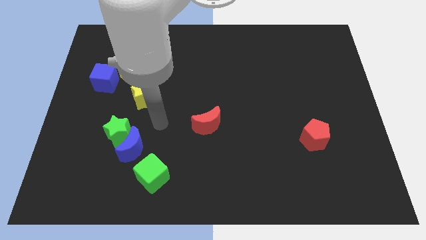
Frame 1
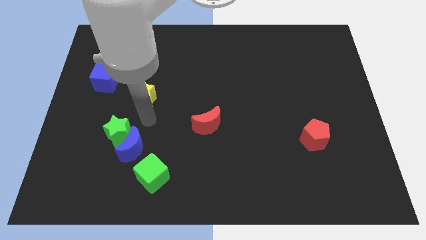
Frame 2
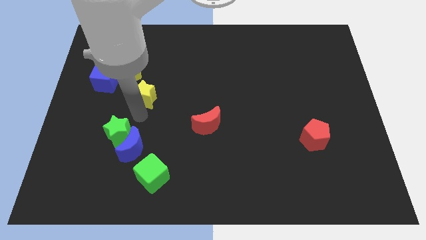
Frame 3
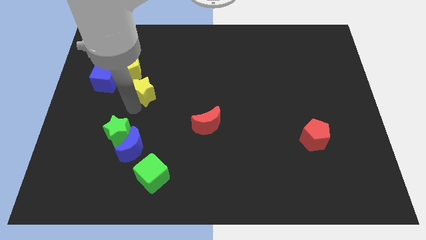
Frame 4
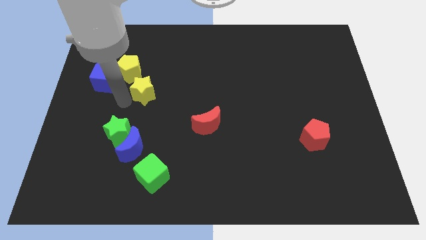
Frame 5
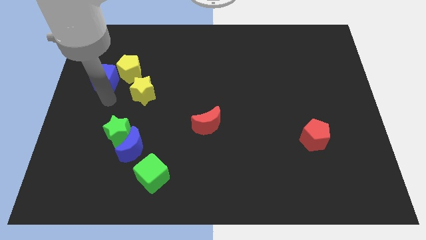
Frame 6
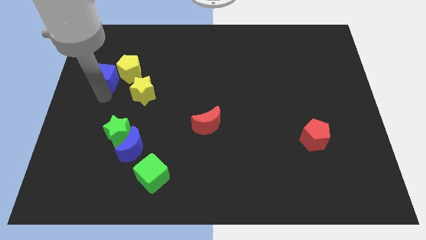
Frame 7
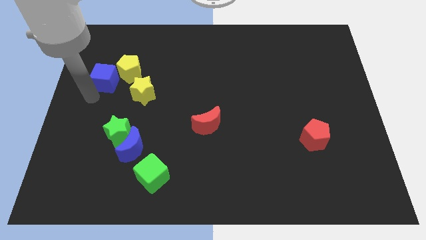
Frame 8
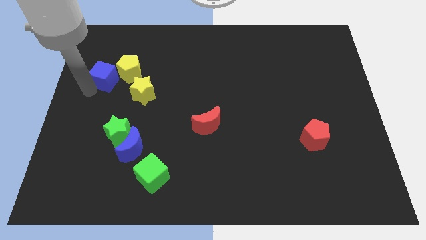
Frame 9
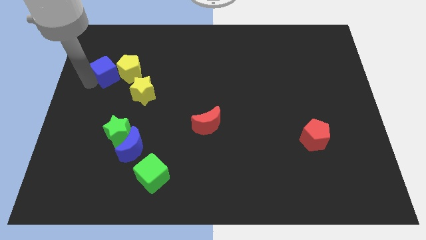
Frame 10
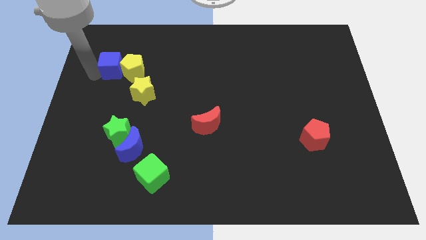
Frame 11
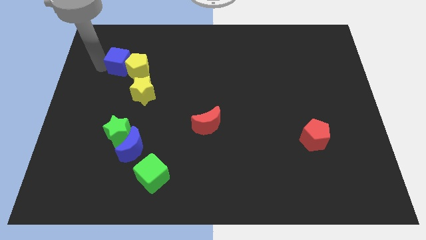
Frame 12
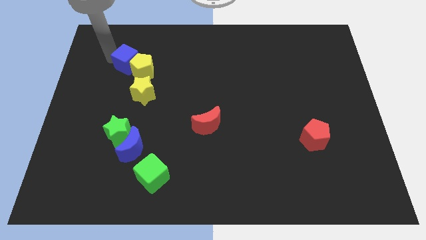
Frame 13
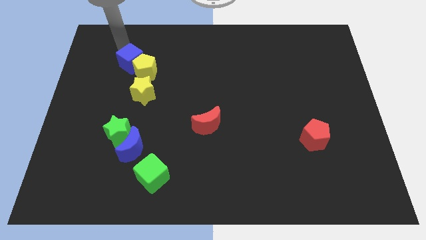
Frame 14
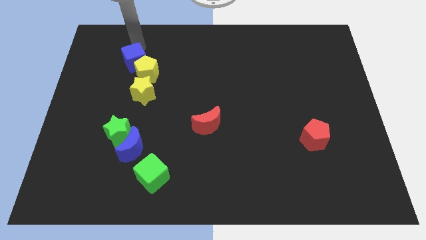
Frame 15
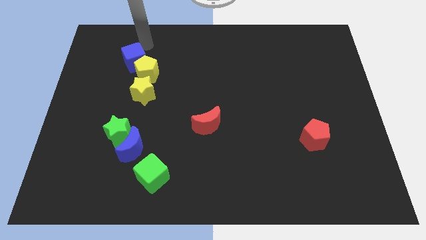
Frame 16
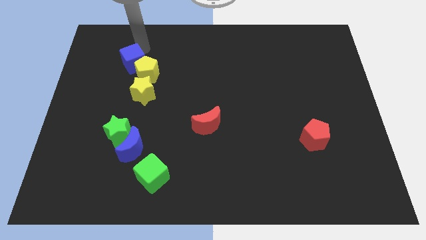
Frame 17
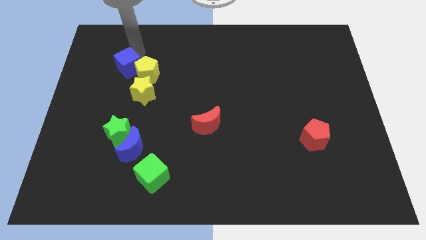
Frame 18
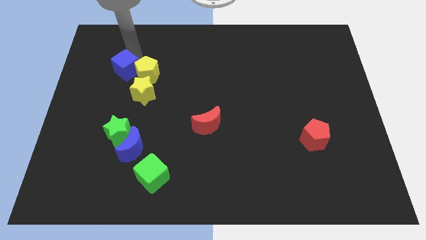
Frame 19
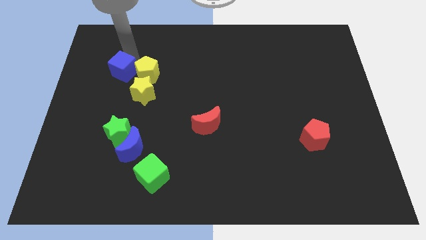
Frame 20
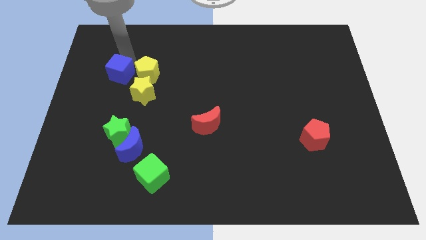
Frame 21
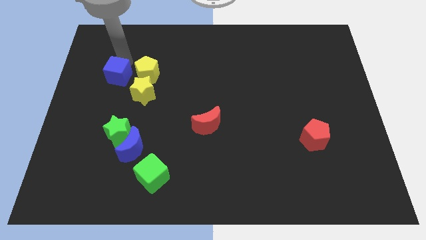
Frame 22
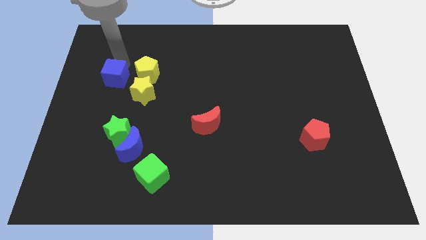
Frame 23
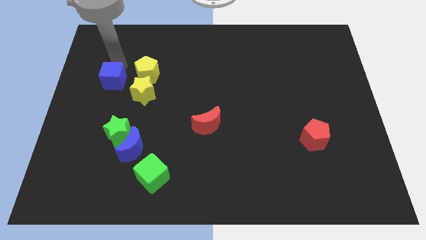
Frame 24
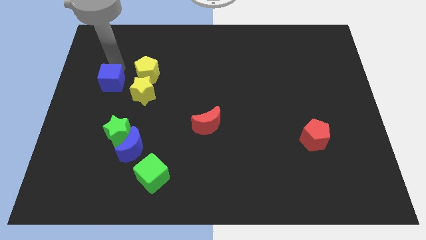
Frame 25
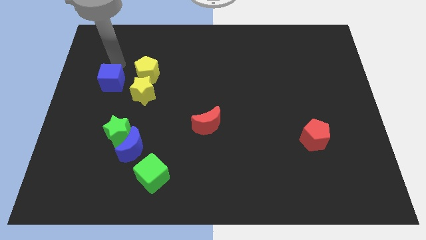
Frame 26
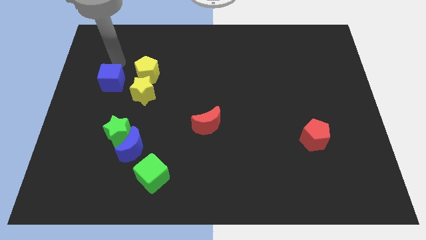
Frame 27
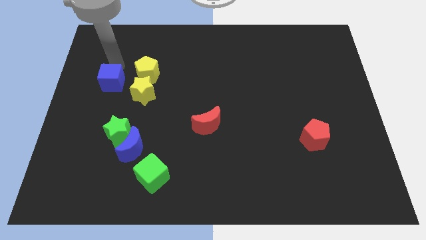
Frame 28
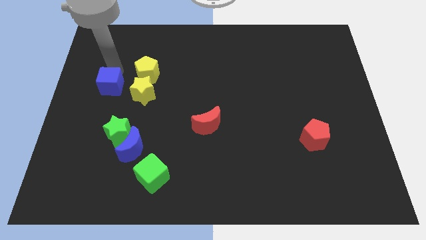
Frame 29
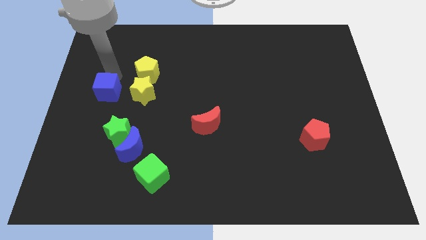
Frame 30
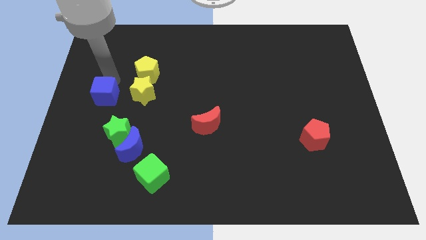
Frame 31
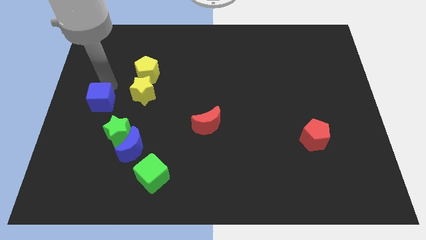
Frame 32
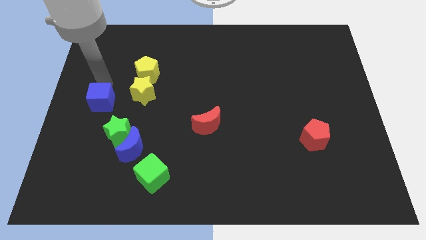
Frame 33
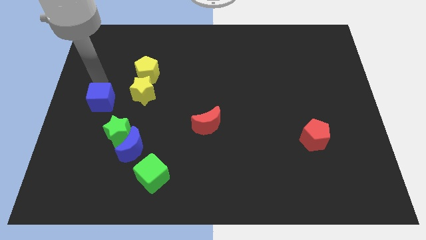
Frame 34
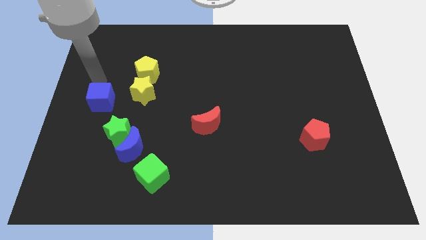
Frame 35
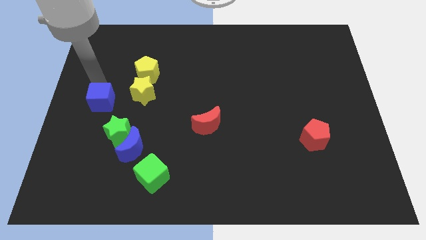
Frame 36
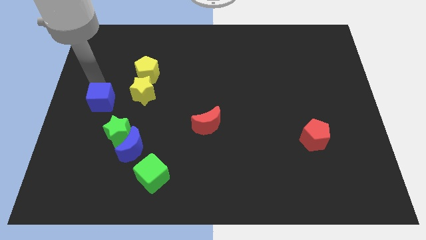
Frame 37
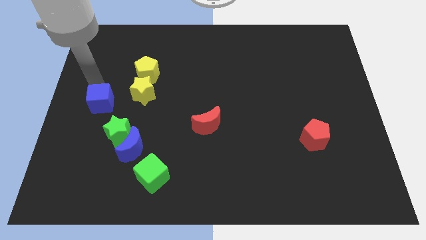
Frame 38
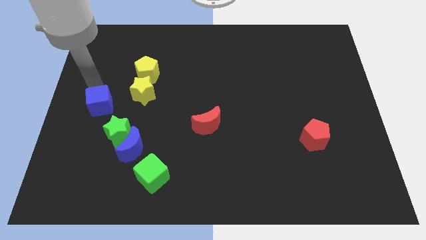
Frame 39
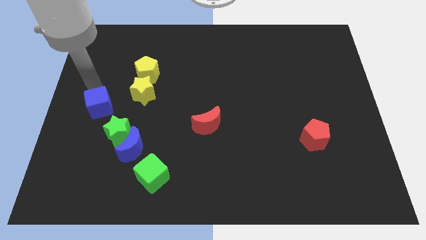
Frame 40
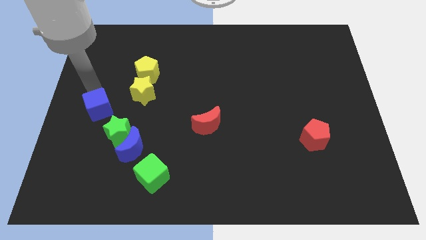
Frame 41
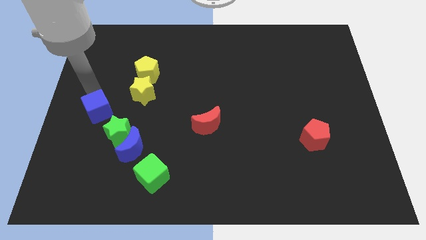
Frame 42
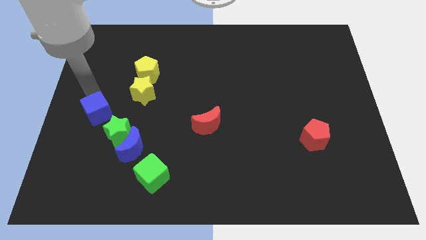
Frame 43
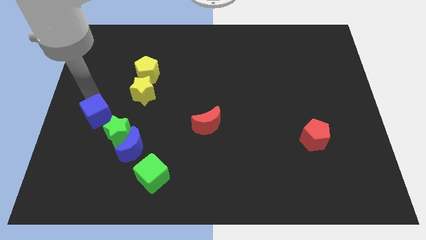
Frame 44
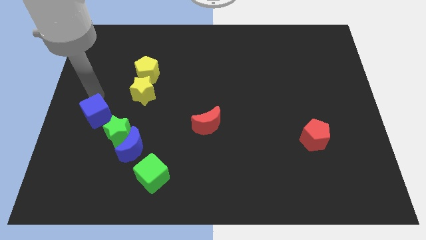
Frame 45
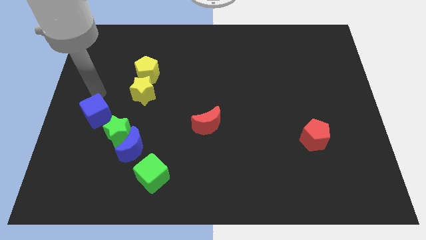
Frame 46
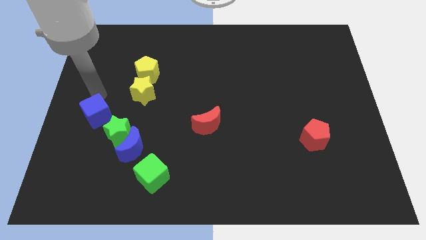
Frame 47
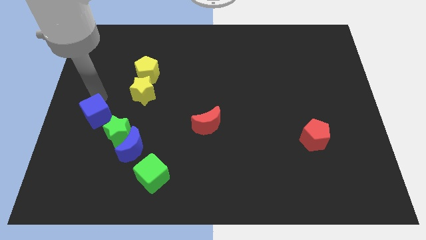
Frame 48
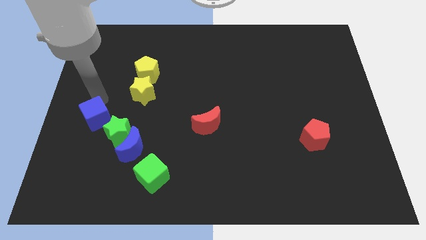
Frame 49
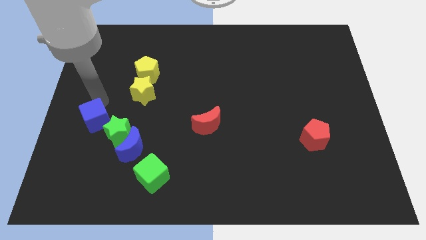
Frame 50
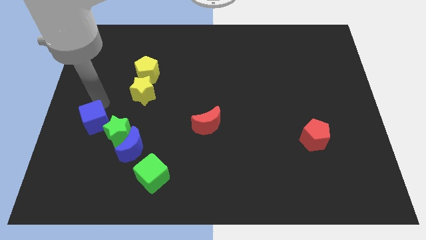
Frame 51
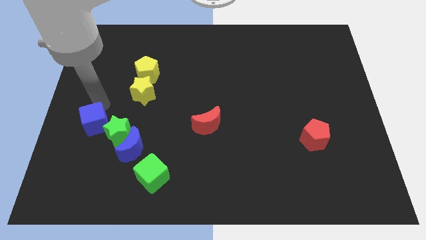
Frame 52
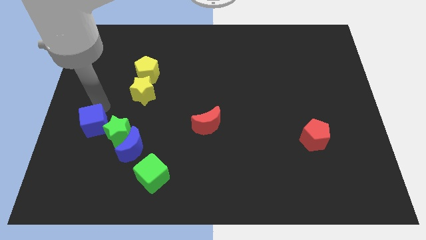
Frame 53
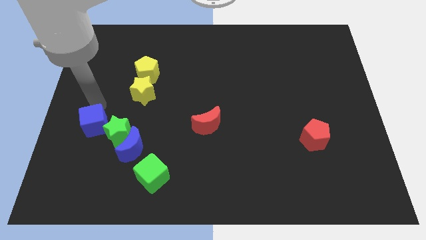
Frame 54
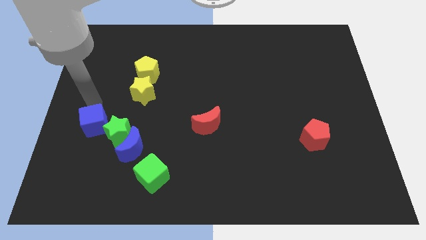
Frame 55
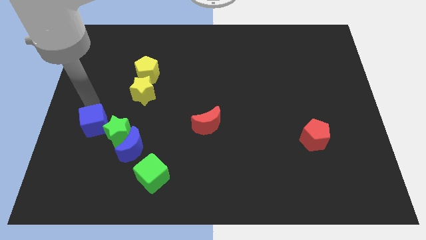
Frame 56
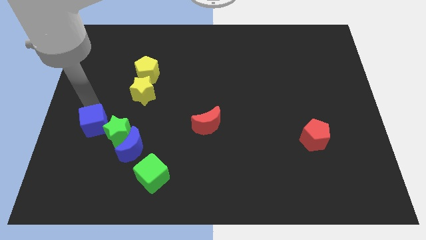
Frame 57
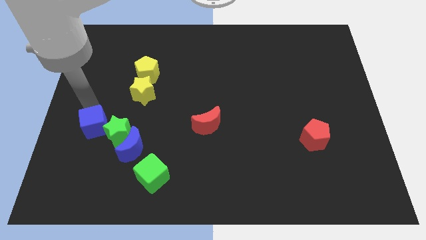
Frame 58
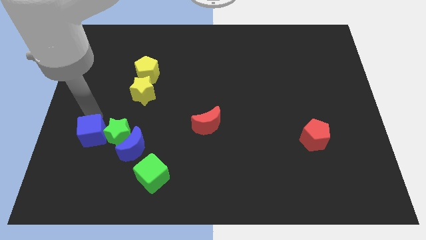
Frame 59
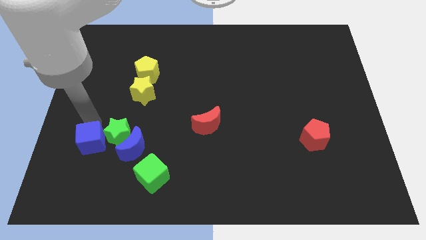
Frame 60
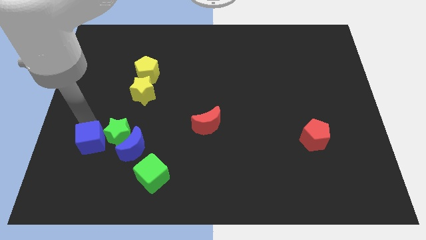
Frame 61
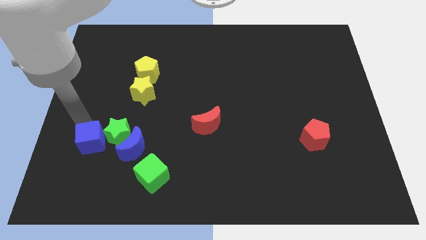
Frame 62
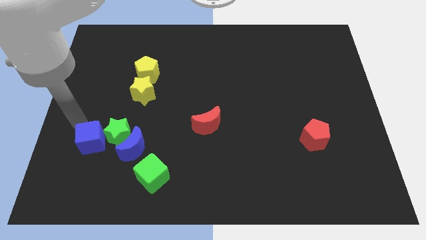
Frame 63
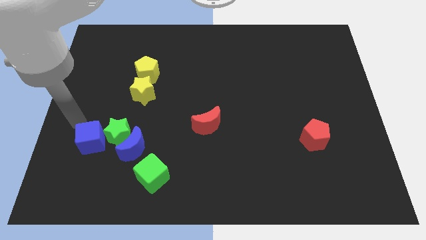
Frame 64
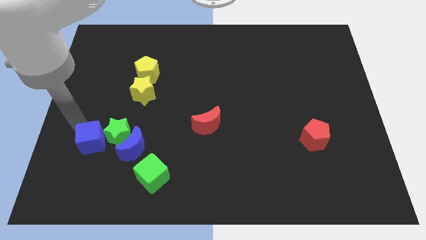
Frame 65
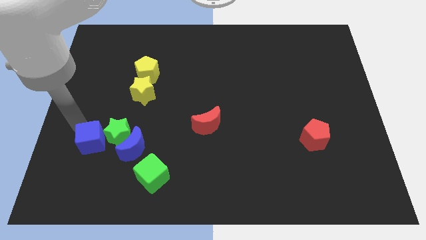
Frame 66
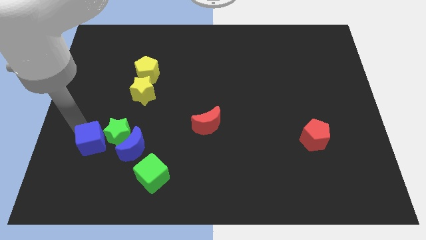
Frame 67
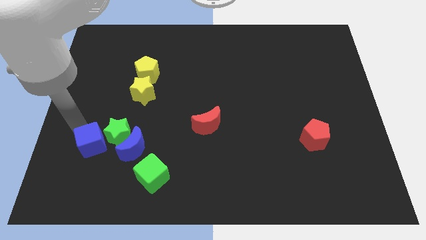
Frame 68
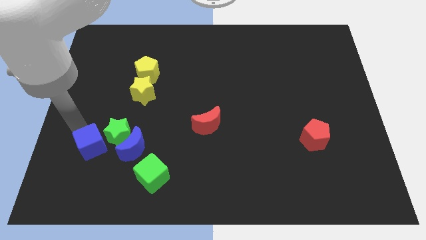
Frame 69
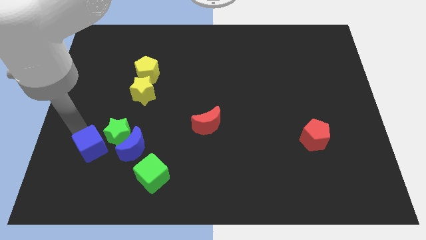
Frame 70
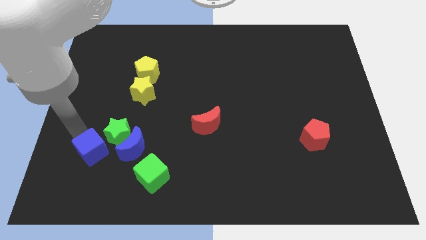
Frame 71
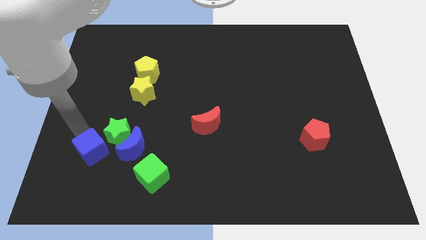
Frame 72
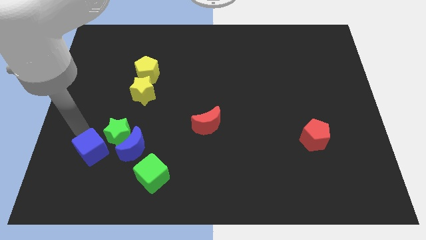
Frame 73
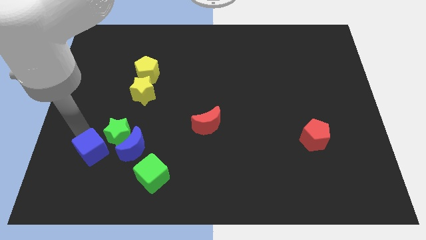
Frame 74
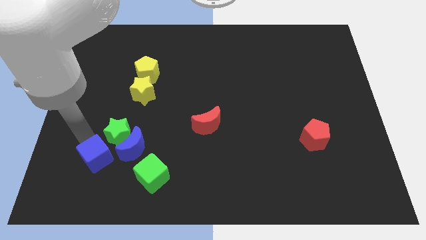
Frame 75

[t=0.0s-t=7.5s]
move the blue cube to the bottom of the green star
